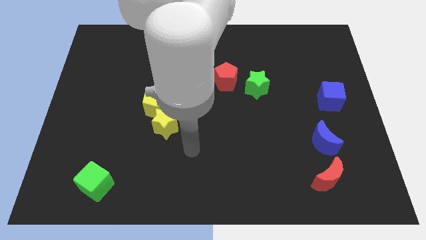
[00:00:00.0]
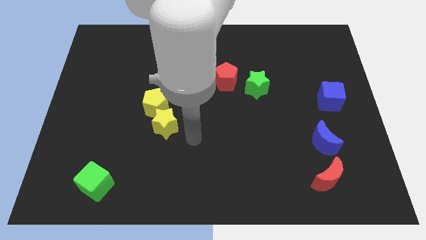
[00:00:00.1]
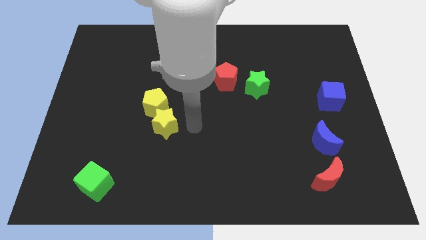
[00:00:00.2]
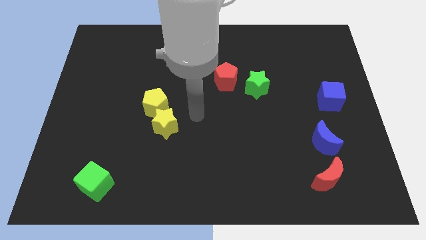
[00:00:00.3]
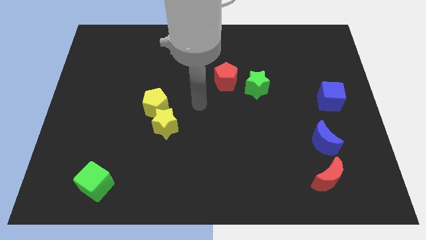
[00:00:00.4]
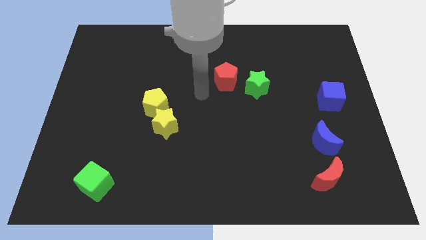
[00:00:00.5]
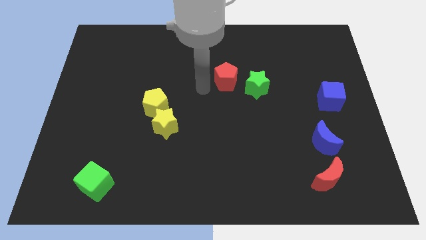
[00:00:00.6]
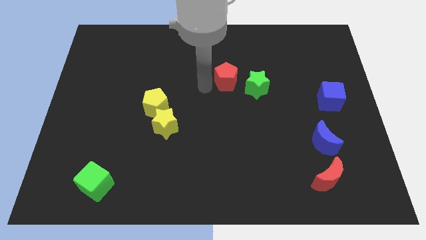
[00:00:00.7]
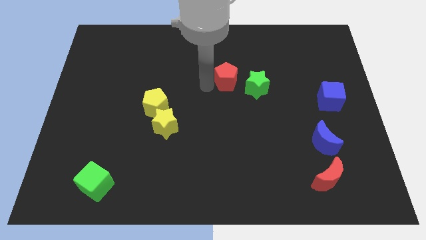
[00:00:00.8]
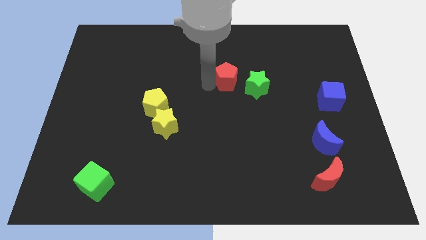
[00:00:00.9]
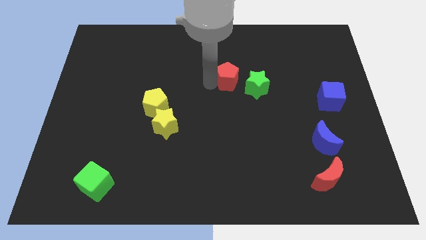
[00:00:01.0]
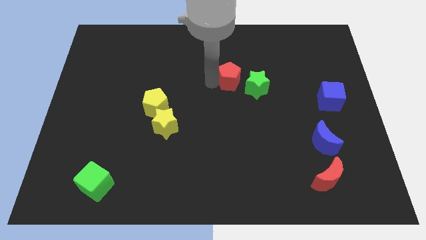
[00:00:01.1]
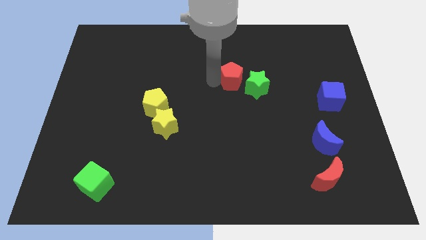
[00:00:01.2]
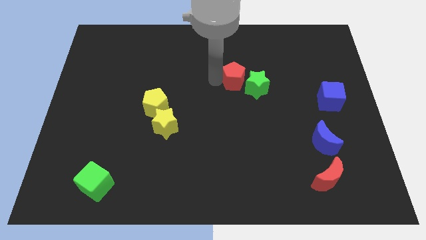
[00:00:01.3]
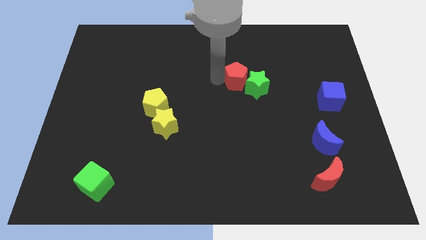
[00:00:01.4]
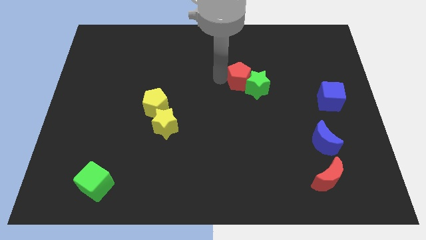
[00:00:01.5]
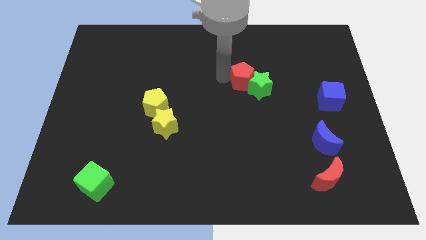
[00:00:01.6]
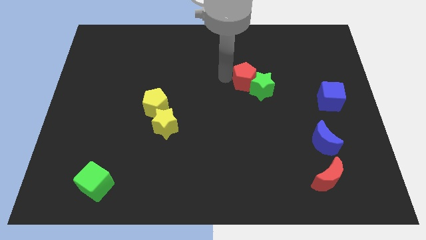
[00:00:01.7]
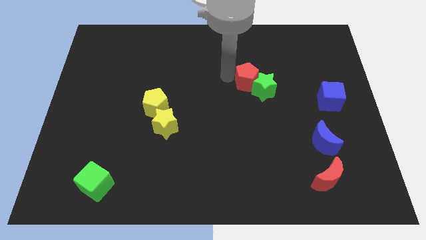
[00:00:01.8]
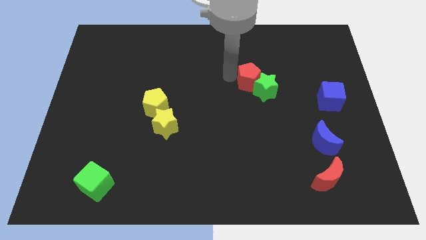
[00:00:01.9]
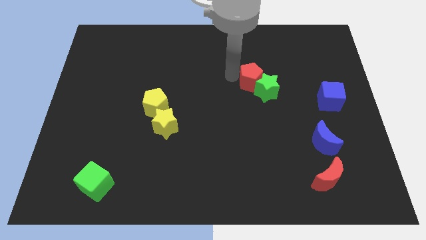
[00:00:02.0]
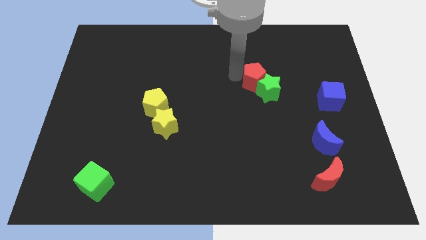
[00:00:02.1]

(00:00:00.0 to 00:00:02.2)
slide the red pentagon right somewhat

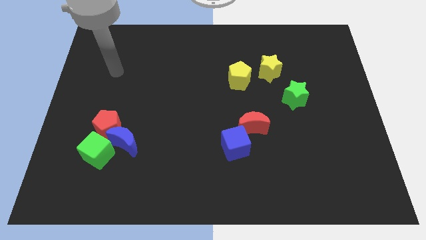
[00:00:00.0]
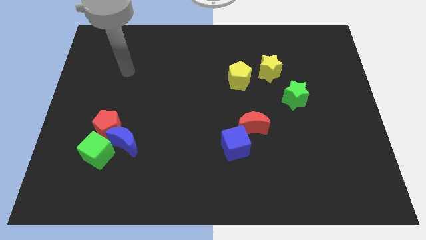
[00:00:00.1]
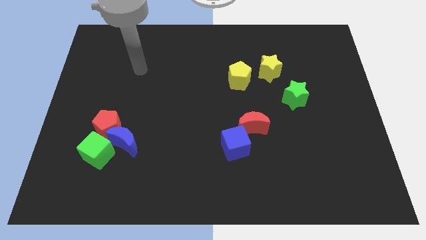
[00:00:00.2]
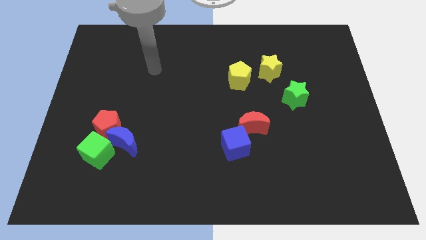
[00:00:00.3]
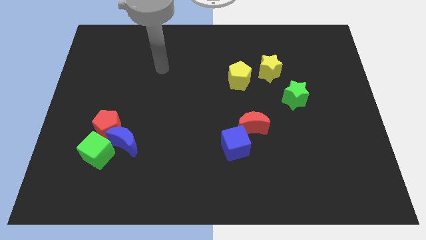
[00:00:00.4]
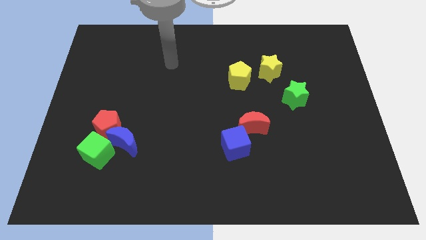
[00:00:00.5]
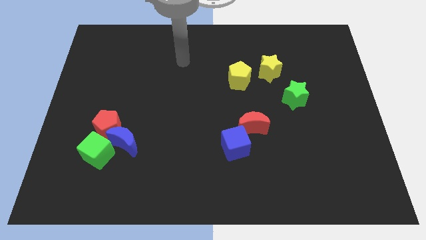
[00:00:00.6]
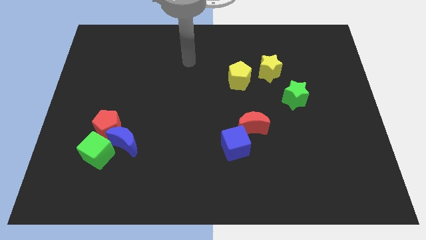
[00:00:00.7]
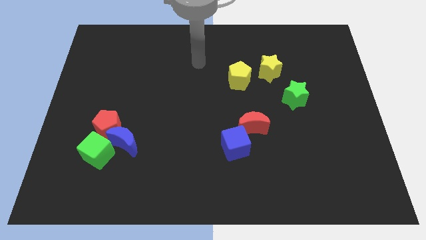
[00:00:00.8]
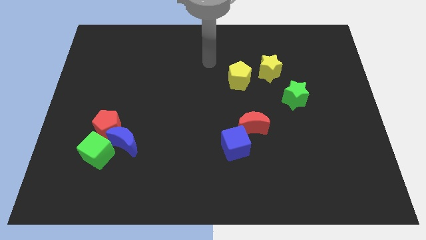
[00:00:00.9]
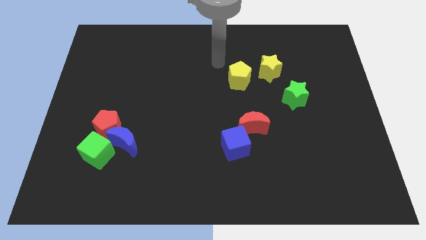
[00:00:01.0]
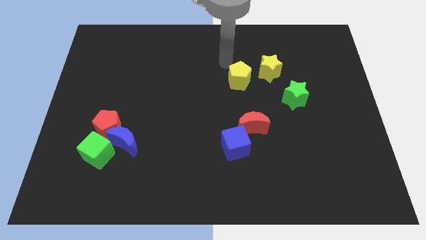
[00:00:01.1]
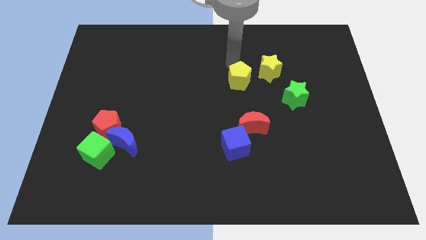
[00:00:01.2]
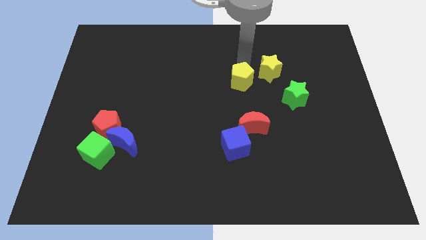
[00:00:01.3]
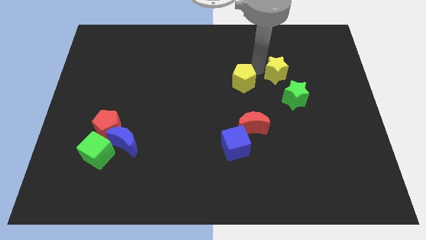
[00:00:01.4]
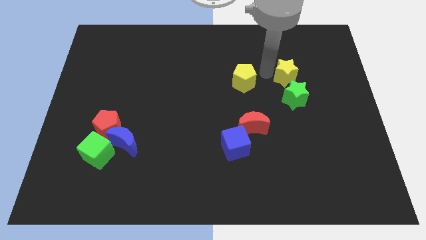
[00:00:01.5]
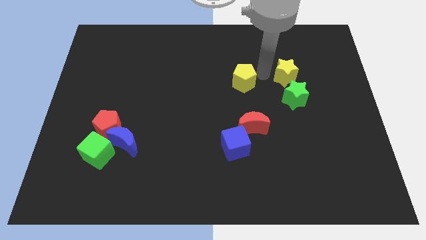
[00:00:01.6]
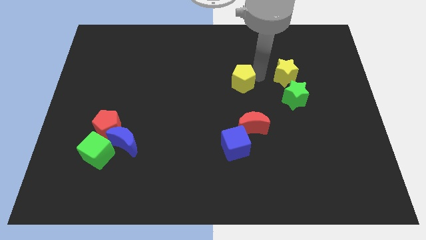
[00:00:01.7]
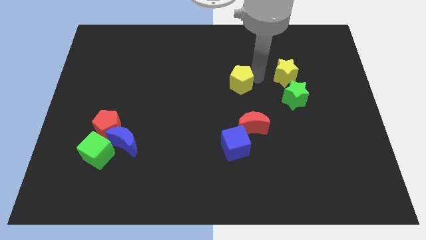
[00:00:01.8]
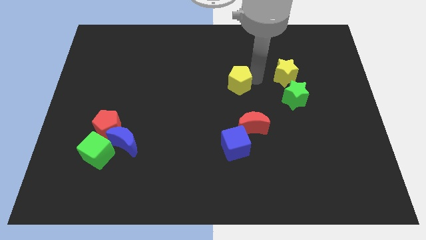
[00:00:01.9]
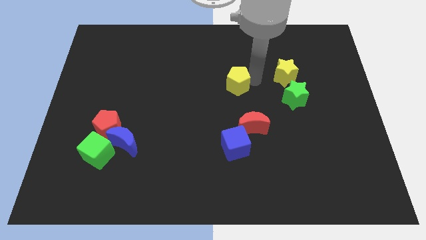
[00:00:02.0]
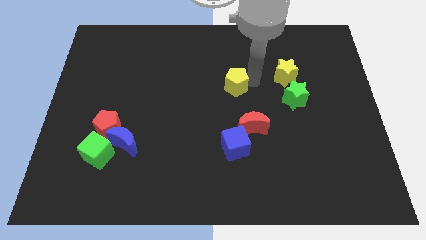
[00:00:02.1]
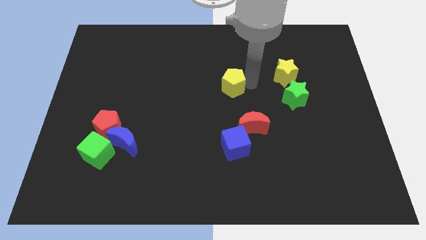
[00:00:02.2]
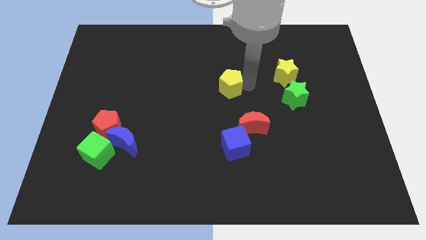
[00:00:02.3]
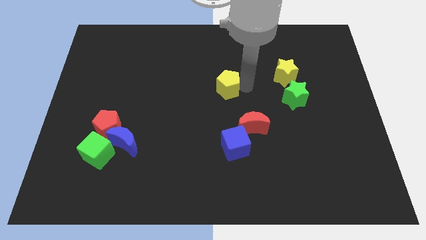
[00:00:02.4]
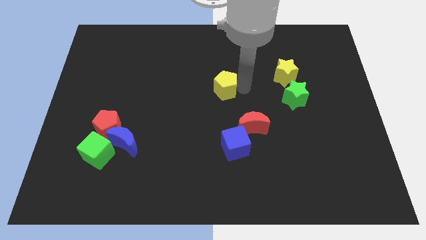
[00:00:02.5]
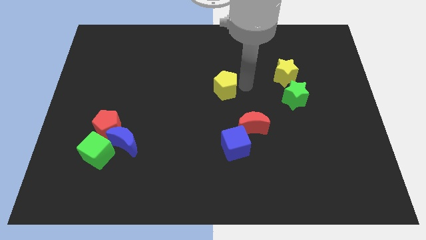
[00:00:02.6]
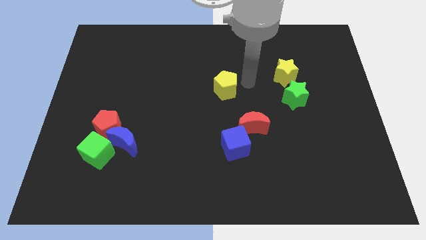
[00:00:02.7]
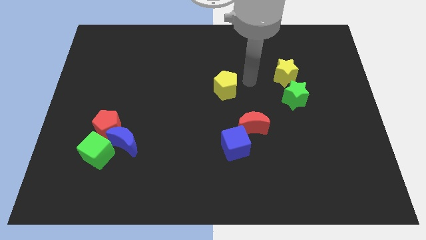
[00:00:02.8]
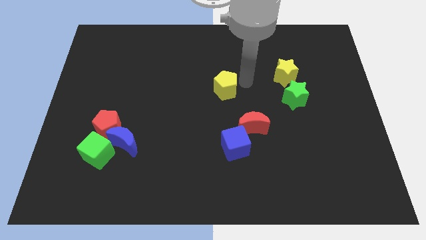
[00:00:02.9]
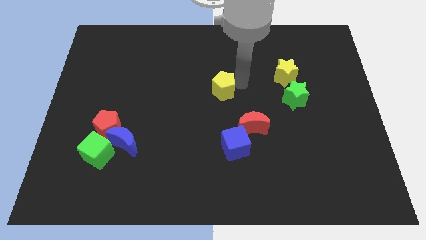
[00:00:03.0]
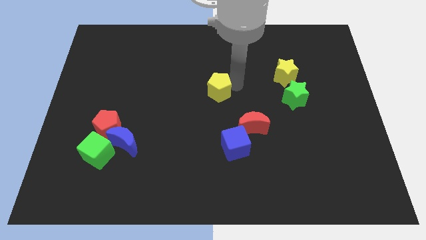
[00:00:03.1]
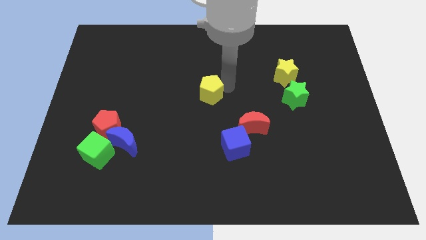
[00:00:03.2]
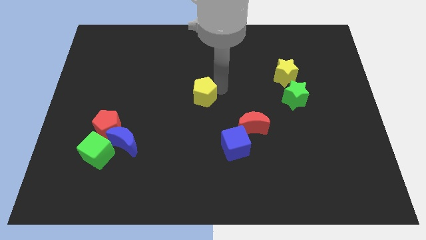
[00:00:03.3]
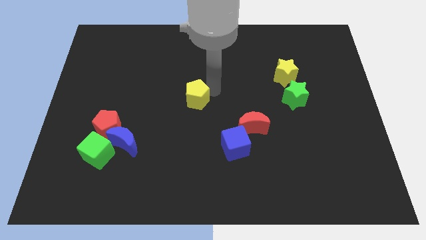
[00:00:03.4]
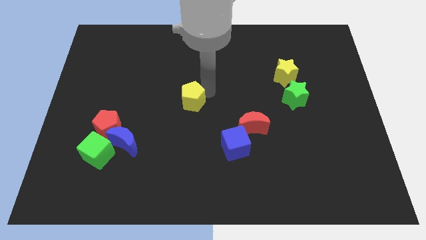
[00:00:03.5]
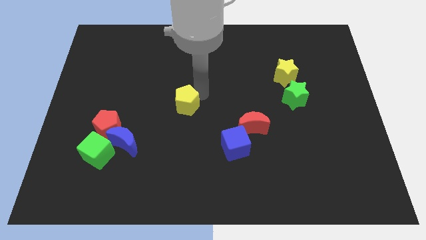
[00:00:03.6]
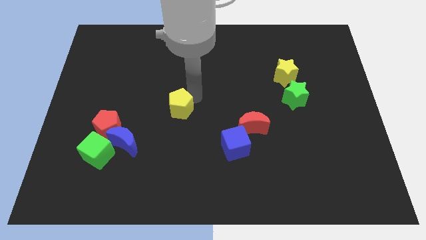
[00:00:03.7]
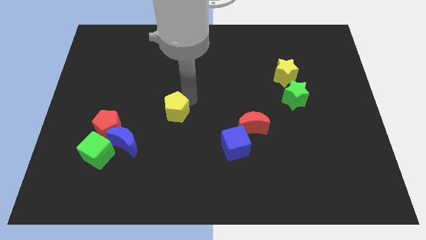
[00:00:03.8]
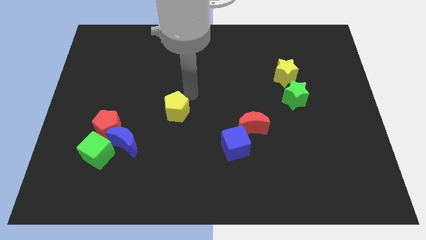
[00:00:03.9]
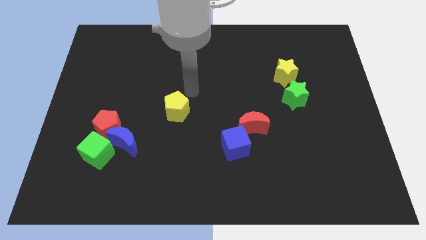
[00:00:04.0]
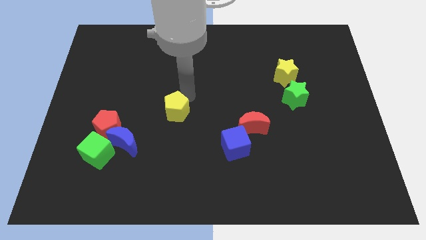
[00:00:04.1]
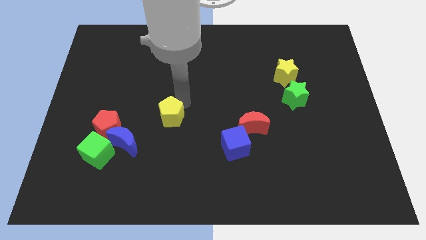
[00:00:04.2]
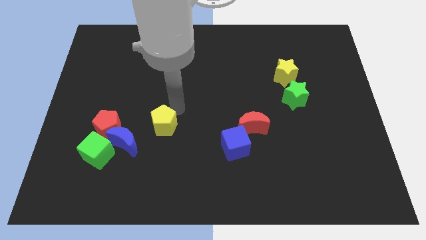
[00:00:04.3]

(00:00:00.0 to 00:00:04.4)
push the yellow pentagon downwards and then to the left

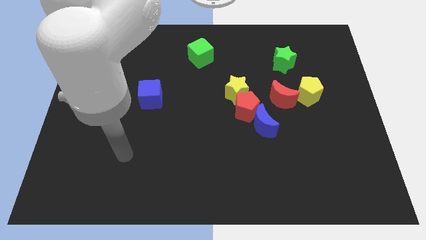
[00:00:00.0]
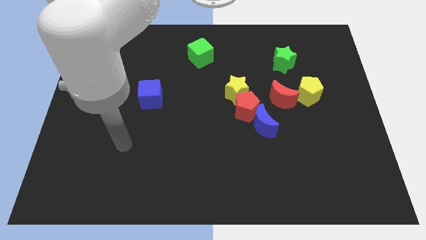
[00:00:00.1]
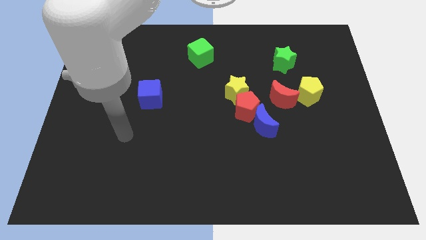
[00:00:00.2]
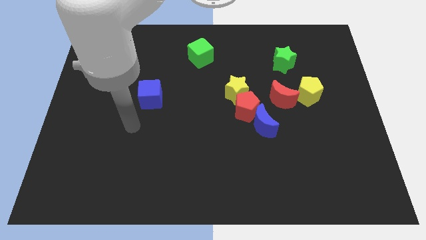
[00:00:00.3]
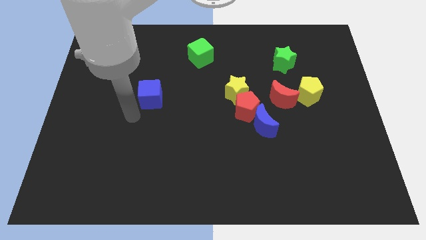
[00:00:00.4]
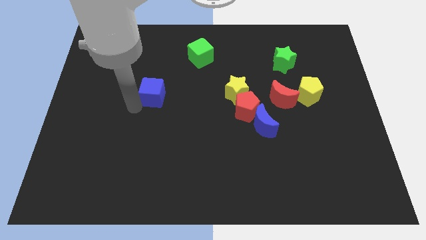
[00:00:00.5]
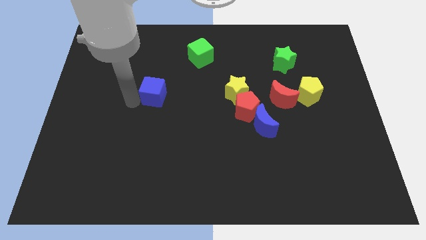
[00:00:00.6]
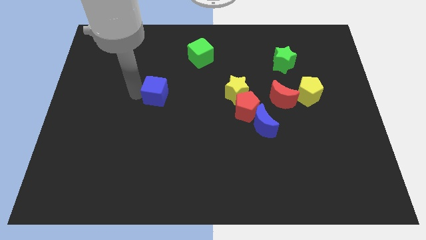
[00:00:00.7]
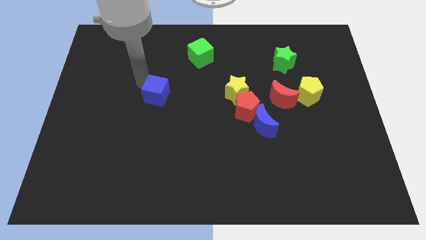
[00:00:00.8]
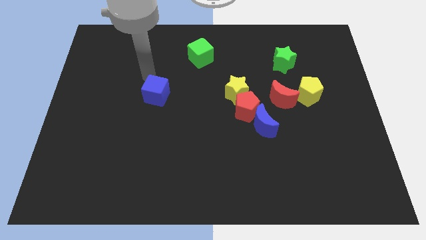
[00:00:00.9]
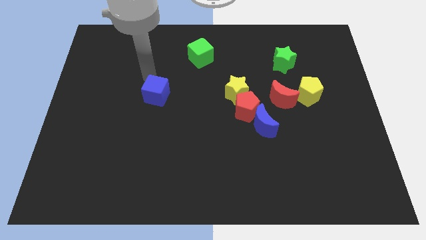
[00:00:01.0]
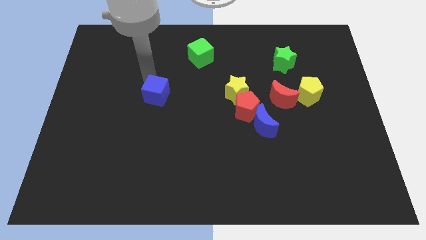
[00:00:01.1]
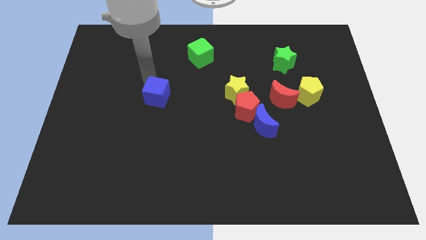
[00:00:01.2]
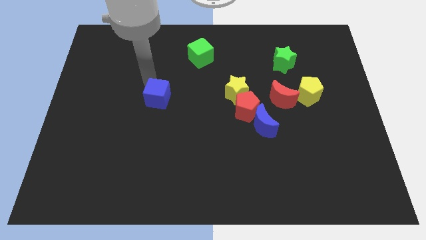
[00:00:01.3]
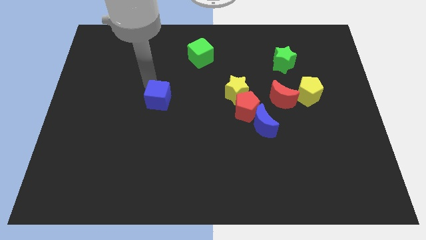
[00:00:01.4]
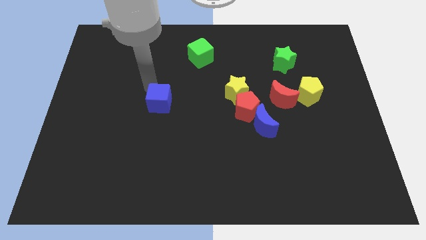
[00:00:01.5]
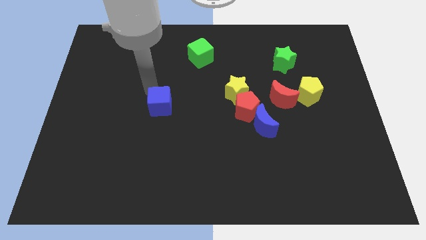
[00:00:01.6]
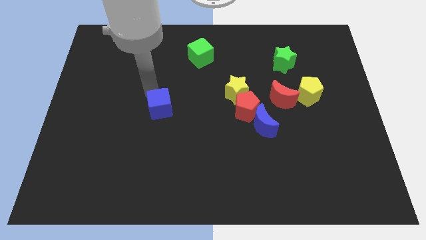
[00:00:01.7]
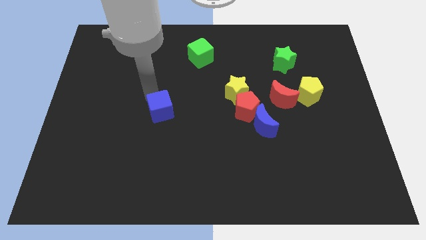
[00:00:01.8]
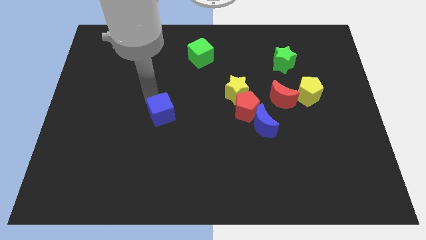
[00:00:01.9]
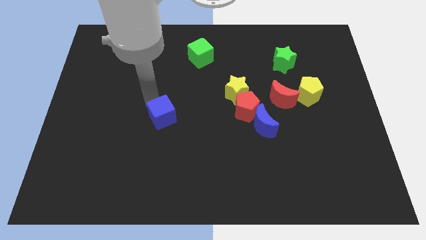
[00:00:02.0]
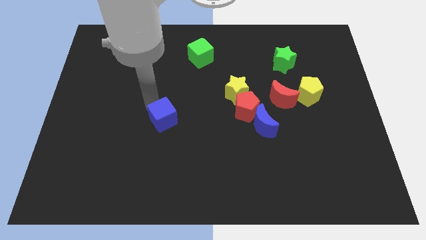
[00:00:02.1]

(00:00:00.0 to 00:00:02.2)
slightly push the blue cube diagonally down and to the right
